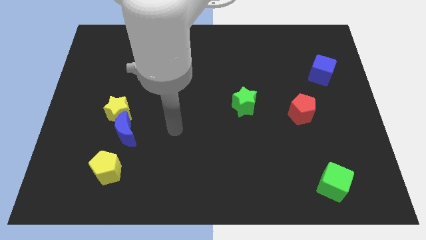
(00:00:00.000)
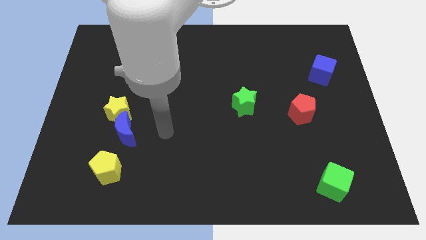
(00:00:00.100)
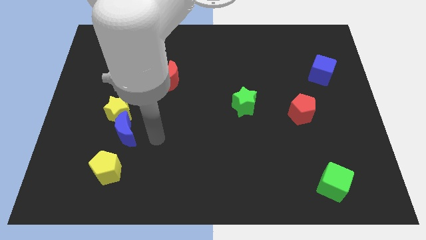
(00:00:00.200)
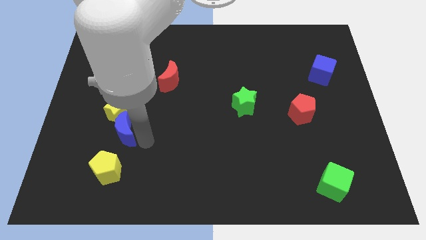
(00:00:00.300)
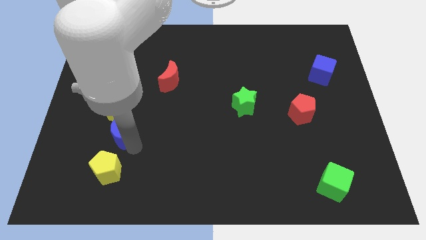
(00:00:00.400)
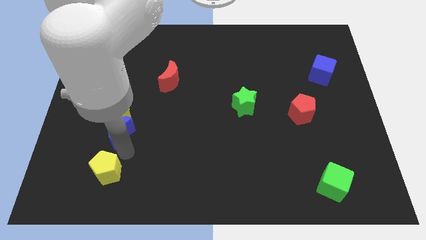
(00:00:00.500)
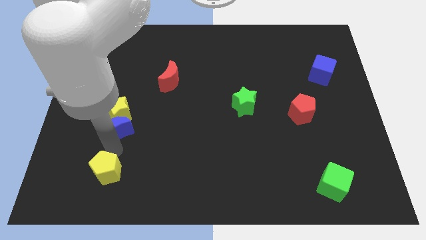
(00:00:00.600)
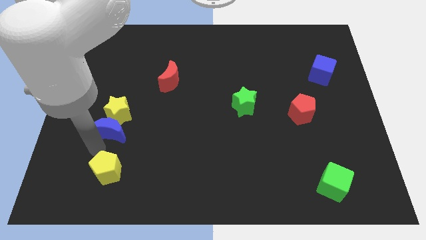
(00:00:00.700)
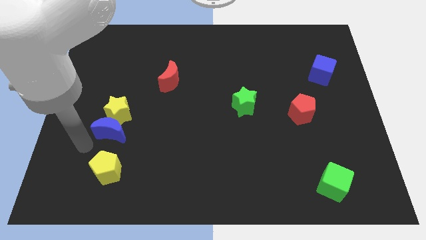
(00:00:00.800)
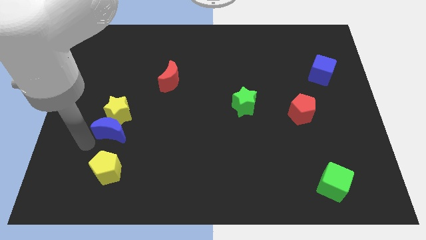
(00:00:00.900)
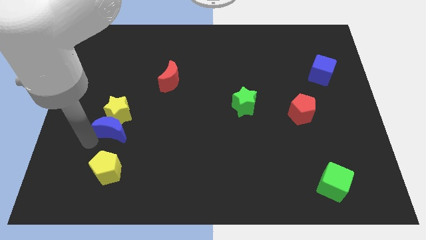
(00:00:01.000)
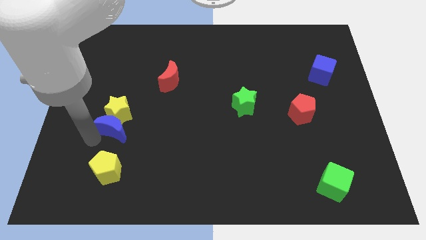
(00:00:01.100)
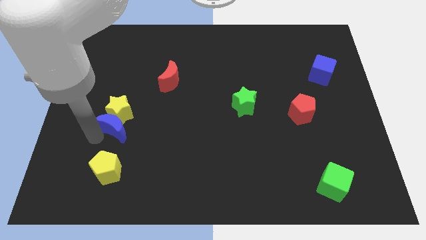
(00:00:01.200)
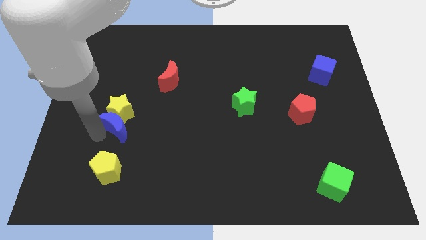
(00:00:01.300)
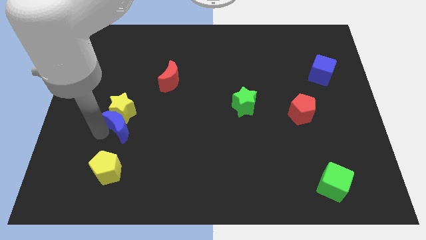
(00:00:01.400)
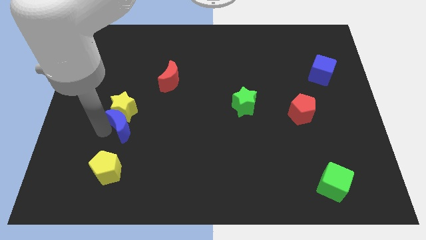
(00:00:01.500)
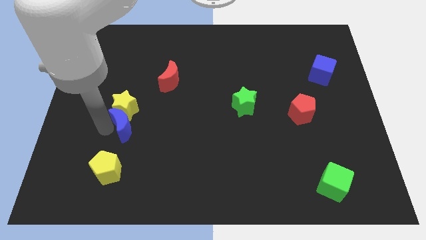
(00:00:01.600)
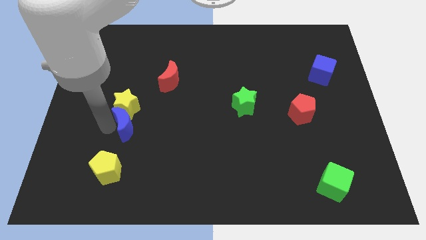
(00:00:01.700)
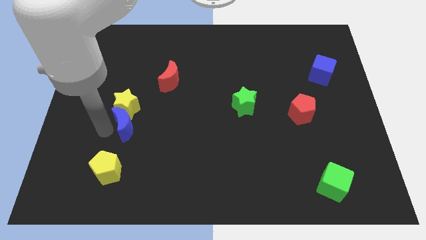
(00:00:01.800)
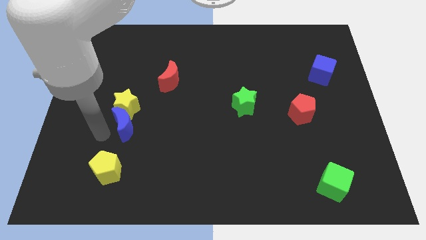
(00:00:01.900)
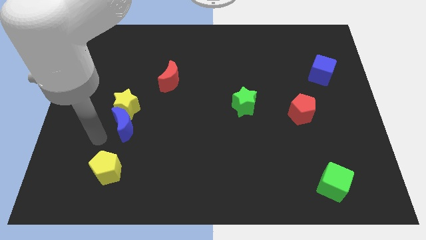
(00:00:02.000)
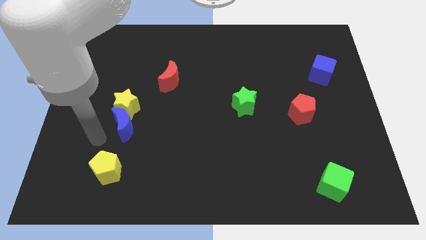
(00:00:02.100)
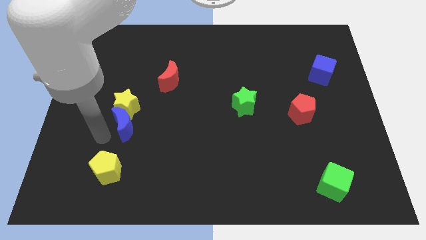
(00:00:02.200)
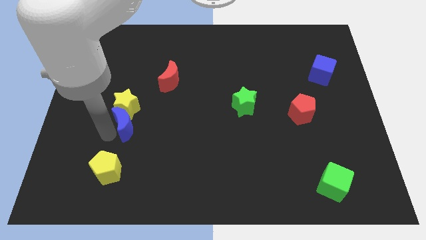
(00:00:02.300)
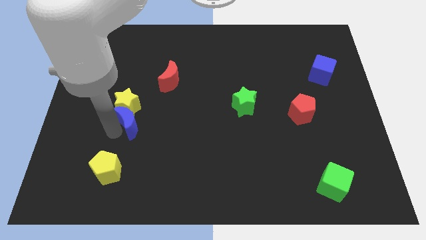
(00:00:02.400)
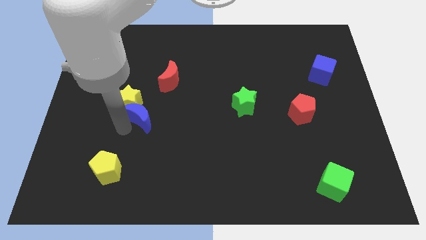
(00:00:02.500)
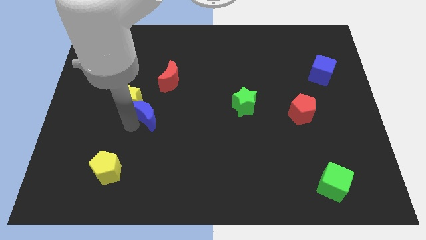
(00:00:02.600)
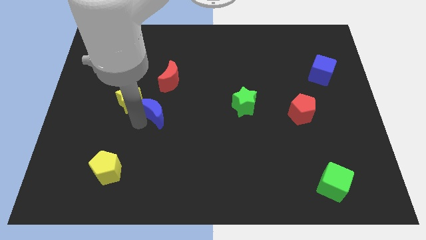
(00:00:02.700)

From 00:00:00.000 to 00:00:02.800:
slightly push the blue moon upwards and then right

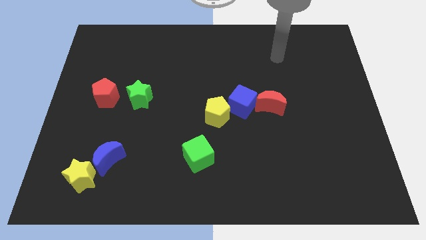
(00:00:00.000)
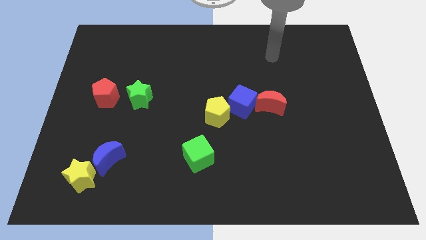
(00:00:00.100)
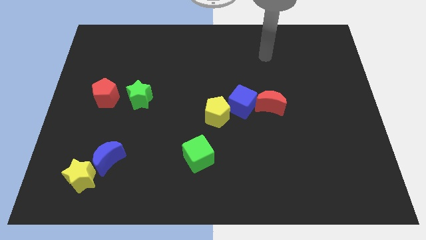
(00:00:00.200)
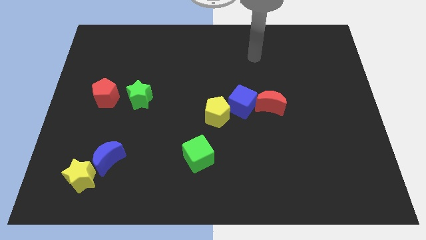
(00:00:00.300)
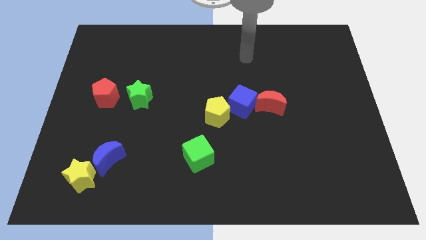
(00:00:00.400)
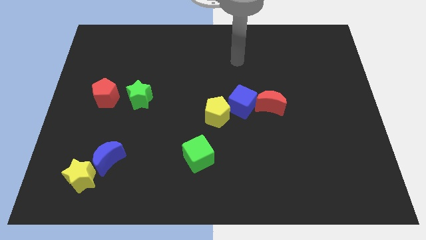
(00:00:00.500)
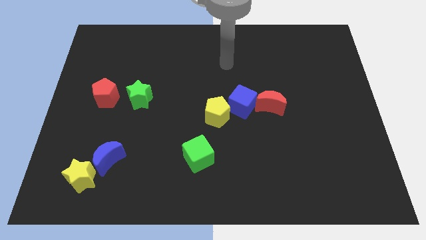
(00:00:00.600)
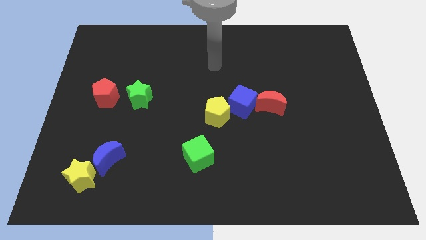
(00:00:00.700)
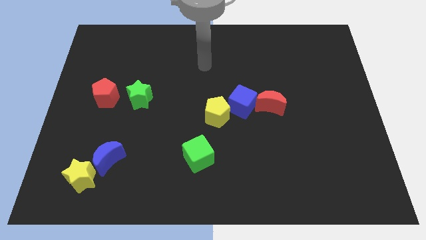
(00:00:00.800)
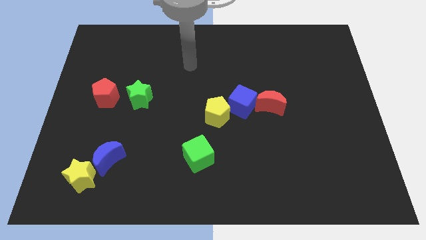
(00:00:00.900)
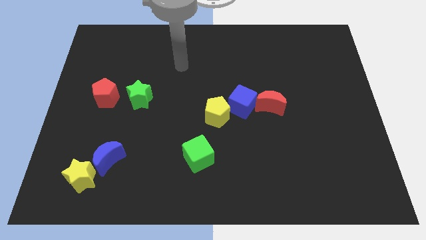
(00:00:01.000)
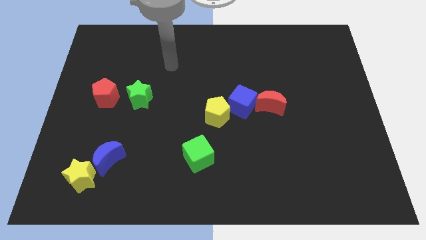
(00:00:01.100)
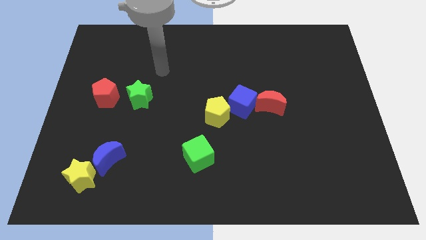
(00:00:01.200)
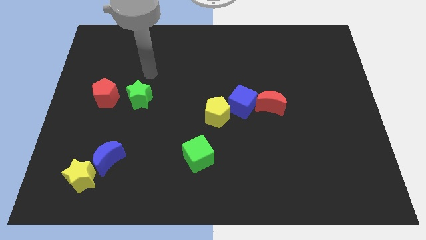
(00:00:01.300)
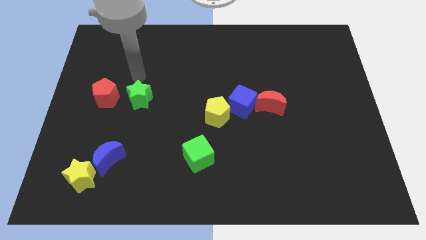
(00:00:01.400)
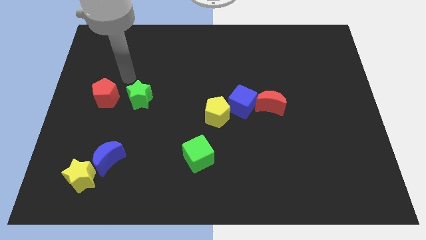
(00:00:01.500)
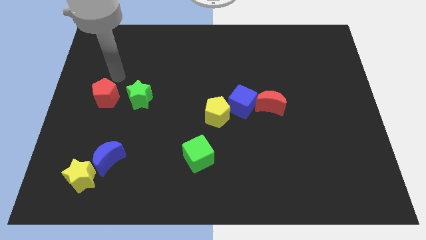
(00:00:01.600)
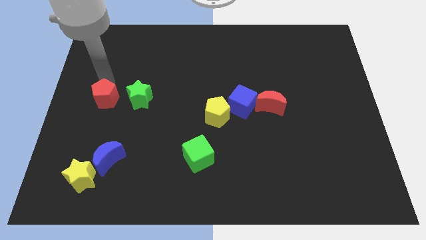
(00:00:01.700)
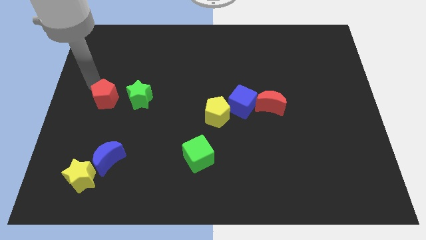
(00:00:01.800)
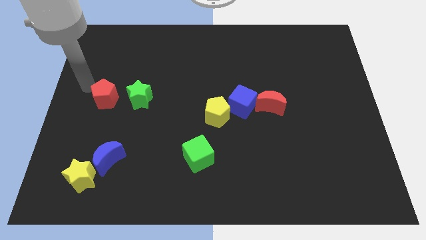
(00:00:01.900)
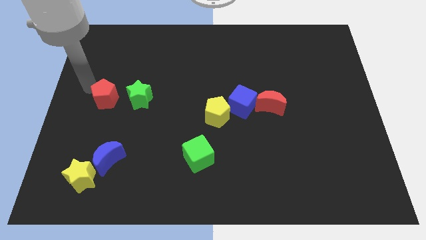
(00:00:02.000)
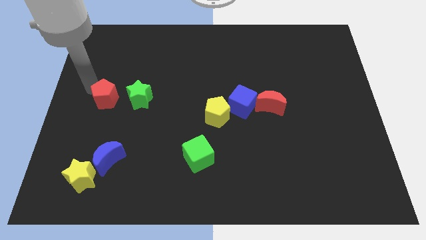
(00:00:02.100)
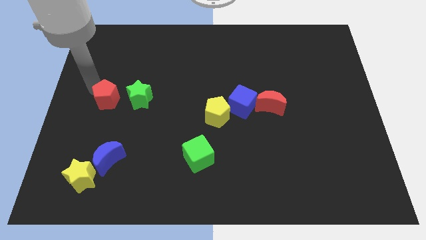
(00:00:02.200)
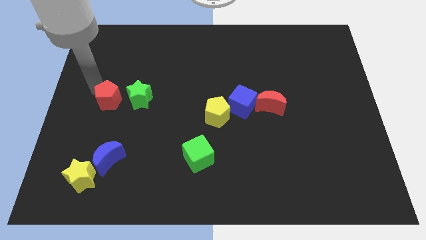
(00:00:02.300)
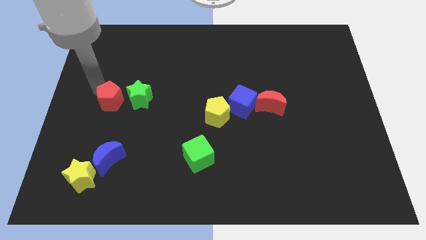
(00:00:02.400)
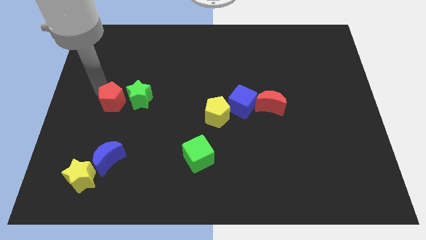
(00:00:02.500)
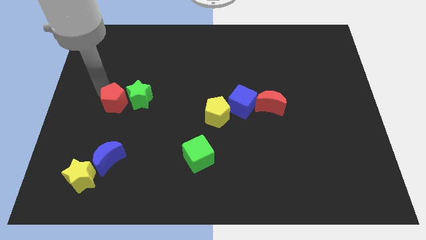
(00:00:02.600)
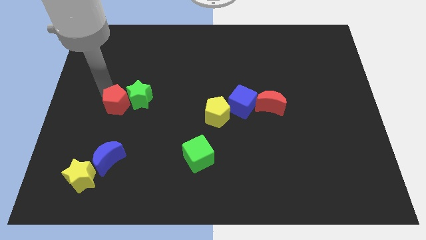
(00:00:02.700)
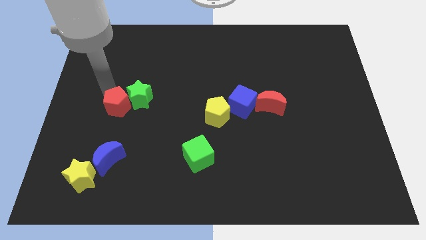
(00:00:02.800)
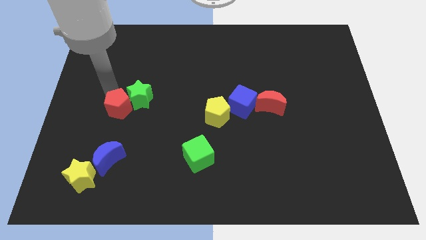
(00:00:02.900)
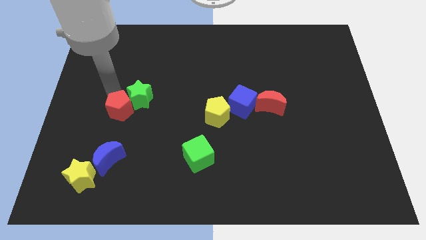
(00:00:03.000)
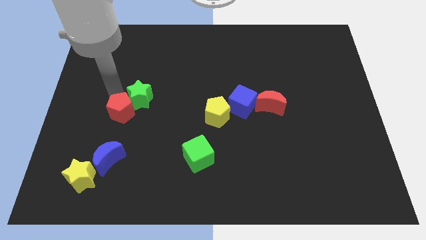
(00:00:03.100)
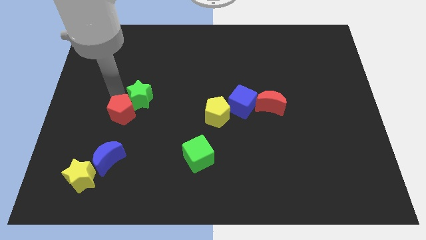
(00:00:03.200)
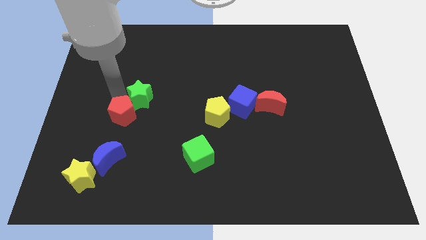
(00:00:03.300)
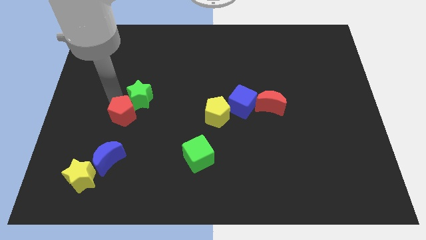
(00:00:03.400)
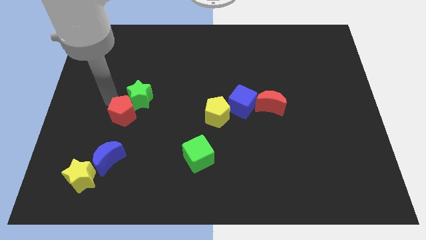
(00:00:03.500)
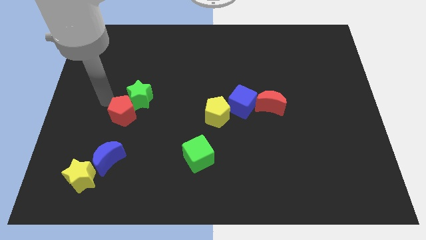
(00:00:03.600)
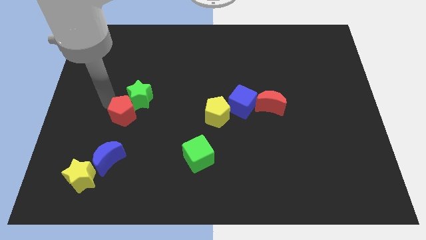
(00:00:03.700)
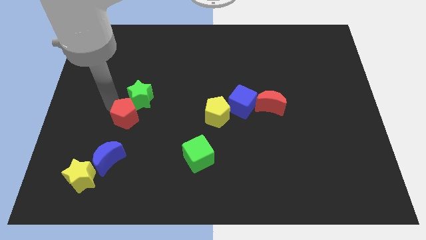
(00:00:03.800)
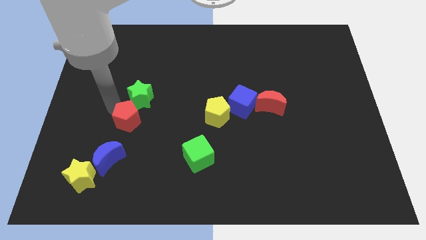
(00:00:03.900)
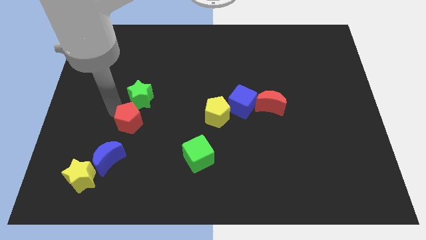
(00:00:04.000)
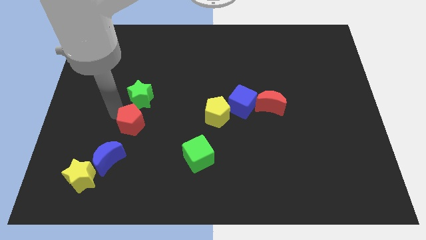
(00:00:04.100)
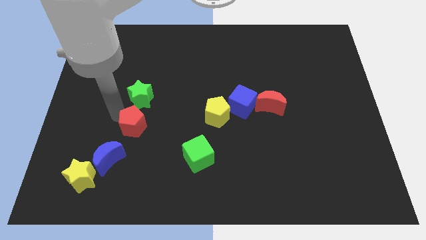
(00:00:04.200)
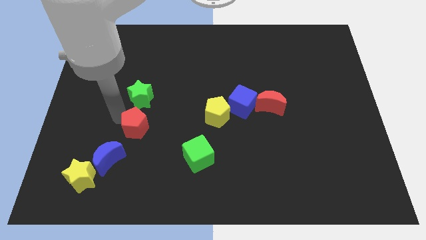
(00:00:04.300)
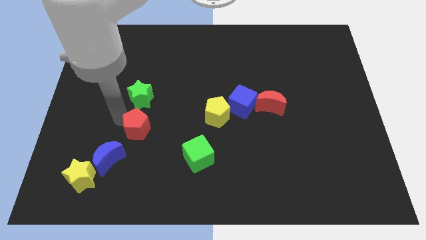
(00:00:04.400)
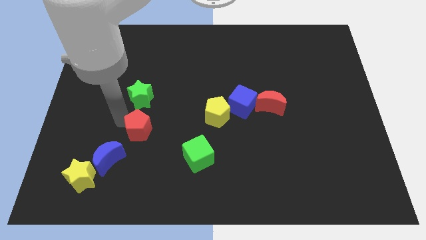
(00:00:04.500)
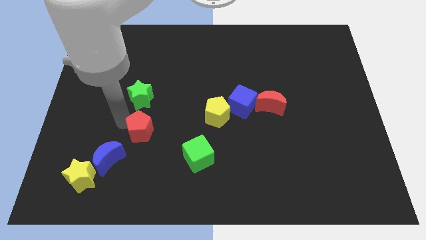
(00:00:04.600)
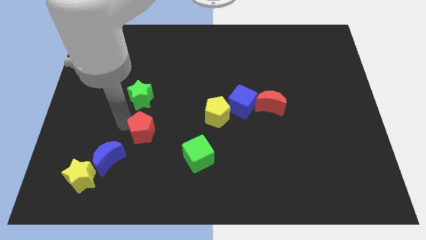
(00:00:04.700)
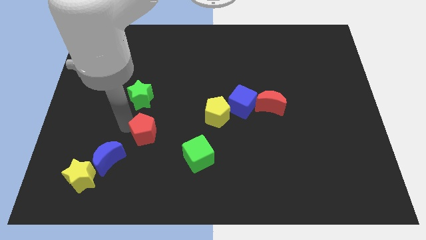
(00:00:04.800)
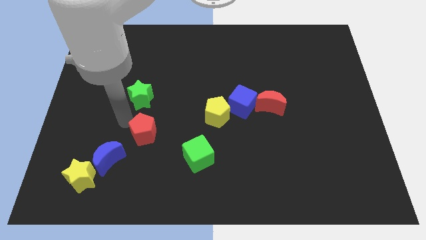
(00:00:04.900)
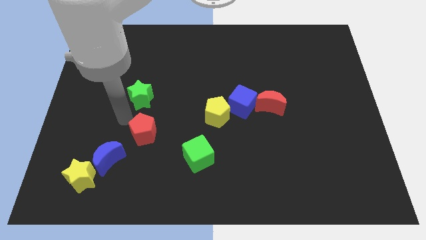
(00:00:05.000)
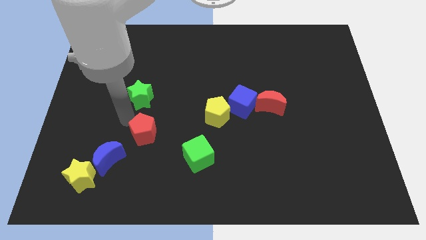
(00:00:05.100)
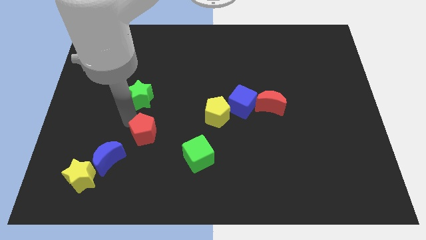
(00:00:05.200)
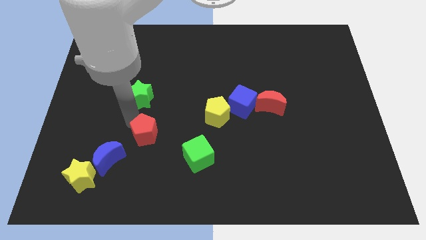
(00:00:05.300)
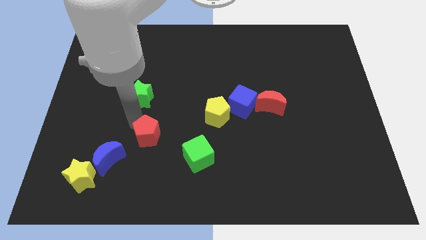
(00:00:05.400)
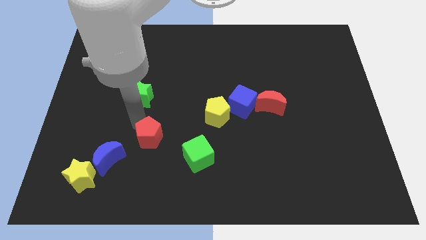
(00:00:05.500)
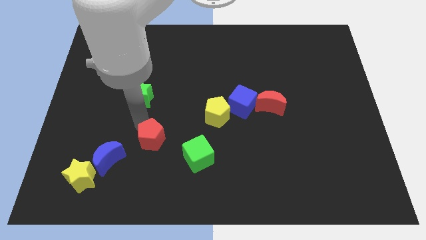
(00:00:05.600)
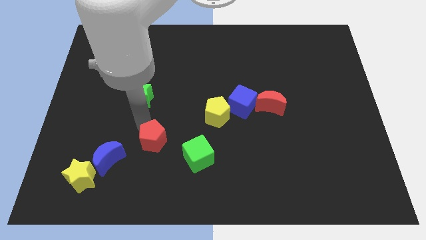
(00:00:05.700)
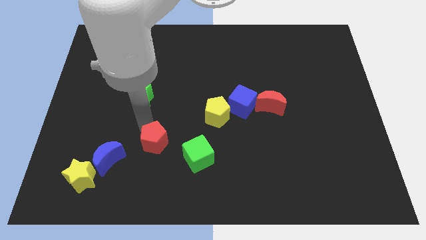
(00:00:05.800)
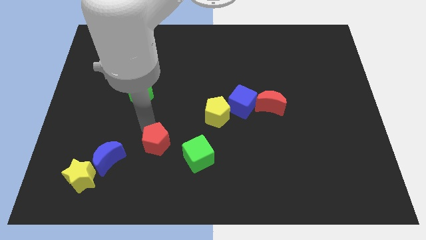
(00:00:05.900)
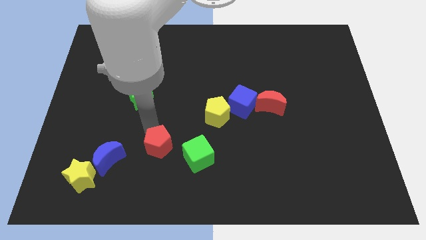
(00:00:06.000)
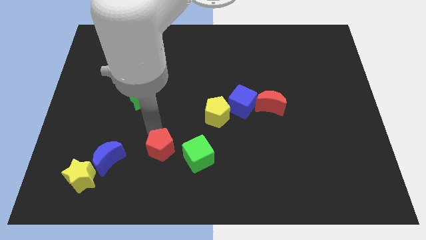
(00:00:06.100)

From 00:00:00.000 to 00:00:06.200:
move the red pentagon downwards and right diagonally
